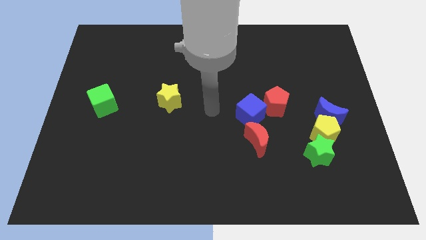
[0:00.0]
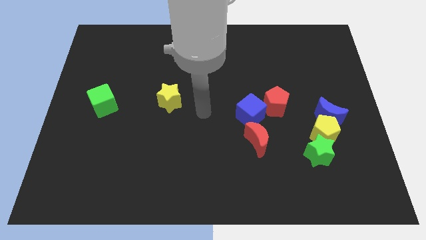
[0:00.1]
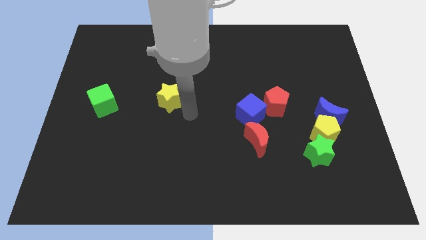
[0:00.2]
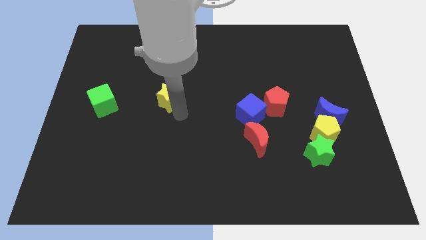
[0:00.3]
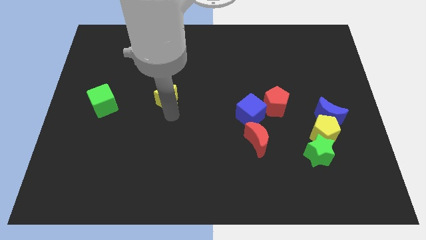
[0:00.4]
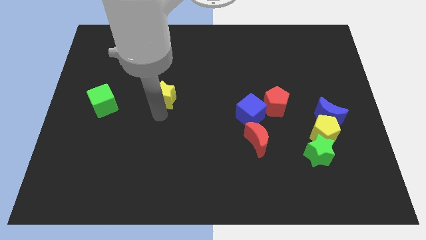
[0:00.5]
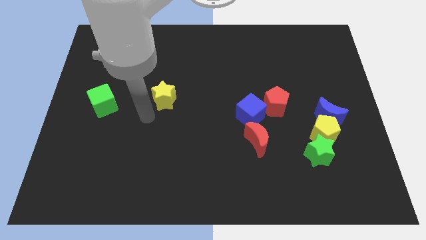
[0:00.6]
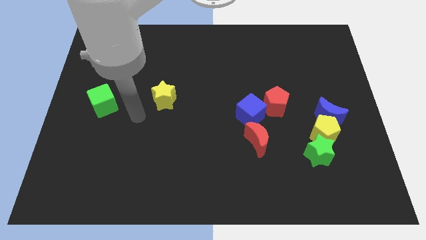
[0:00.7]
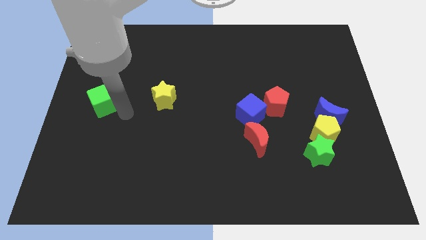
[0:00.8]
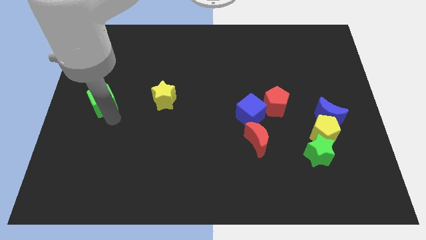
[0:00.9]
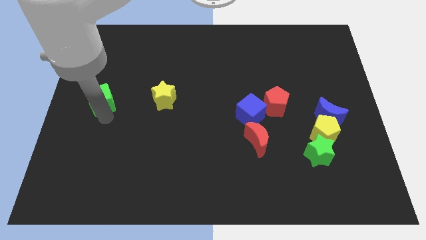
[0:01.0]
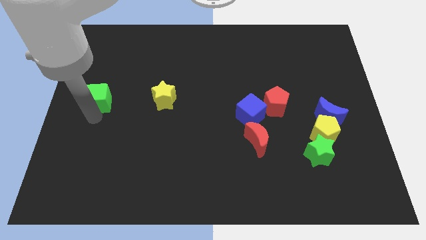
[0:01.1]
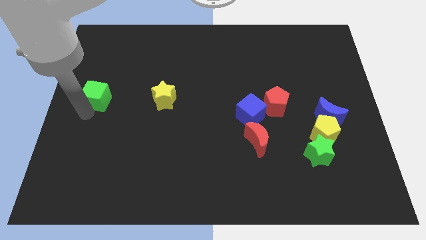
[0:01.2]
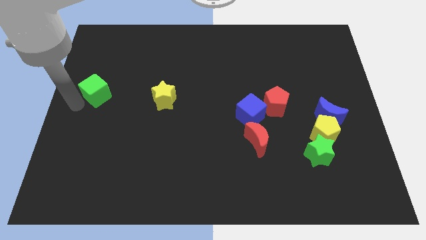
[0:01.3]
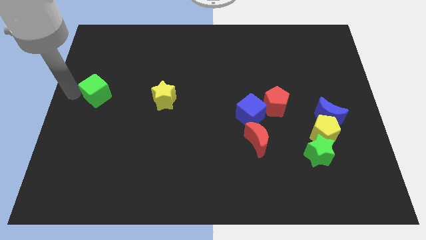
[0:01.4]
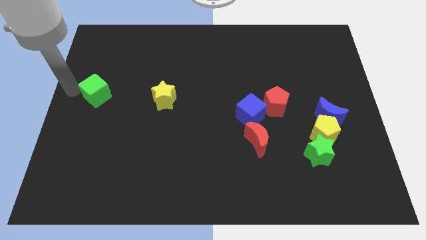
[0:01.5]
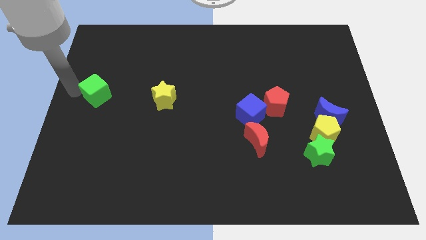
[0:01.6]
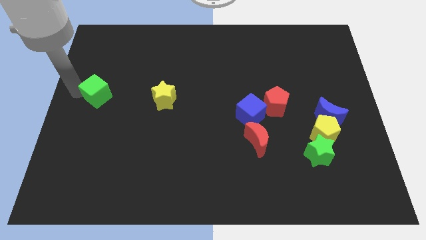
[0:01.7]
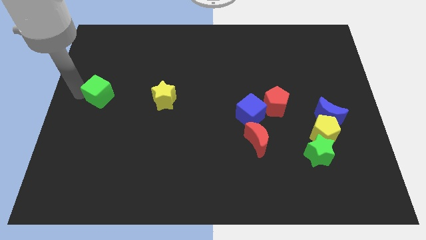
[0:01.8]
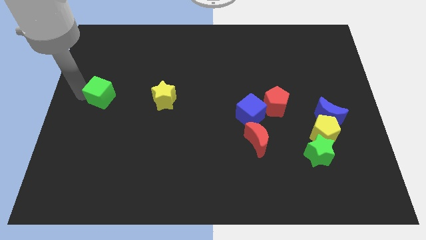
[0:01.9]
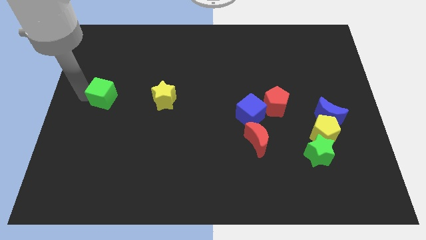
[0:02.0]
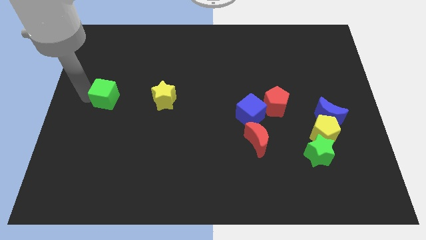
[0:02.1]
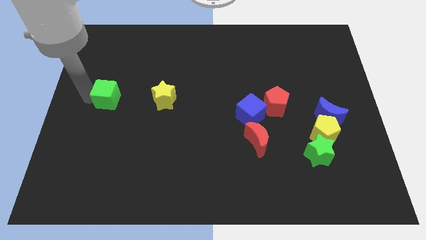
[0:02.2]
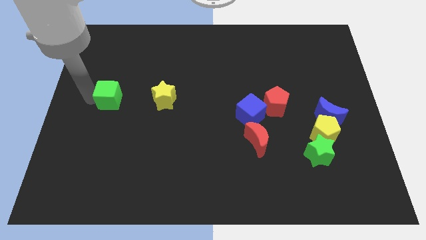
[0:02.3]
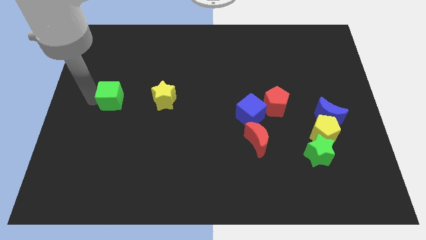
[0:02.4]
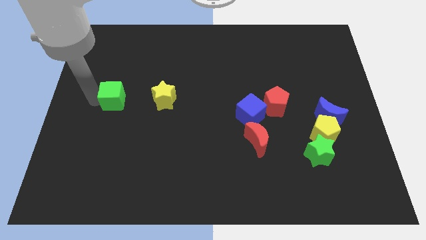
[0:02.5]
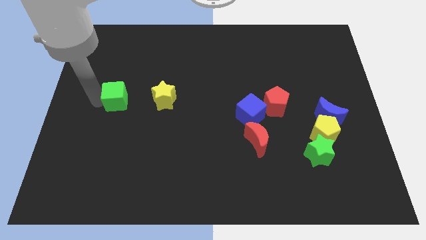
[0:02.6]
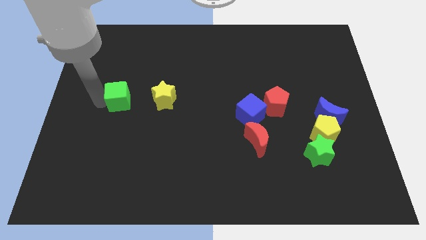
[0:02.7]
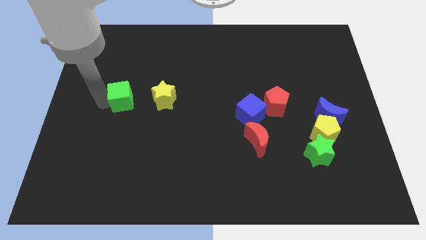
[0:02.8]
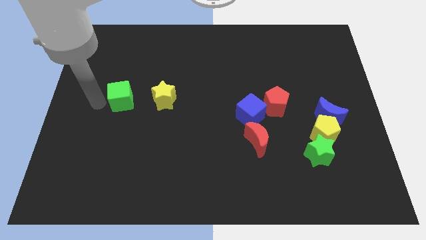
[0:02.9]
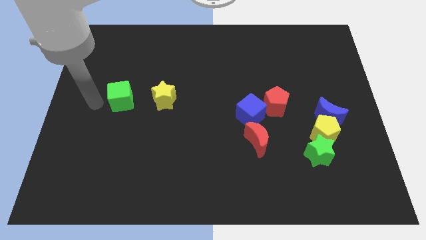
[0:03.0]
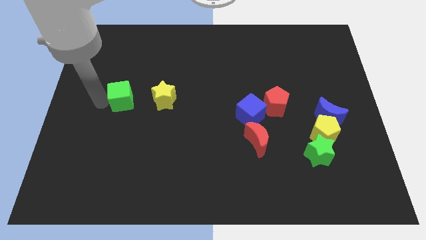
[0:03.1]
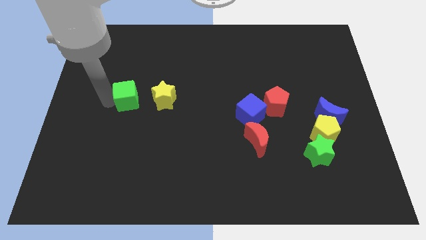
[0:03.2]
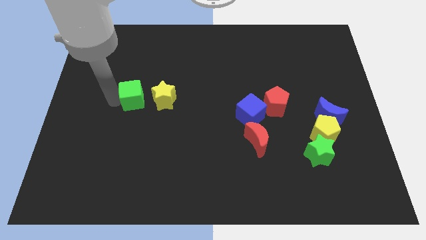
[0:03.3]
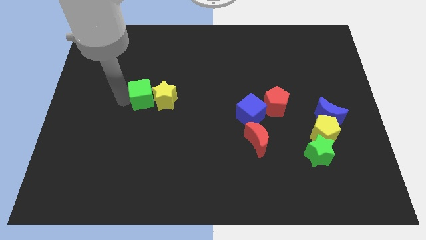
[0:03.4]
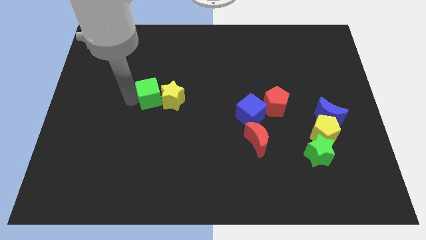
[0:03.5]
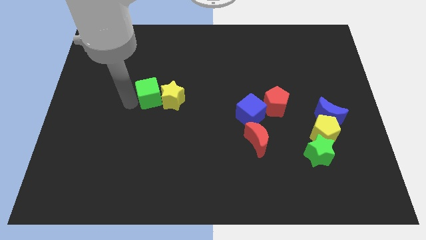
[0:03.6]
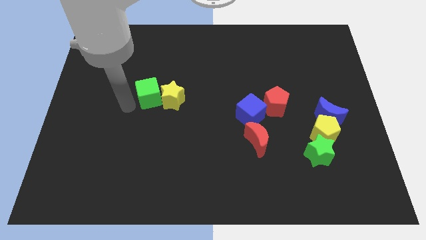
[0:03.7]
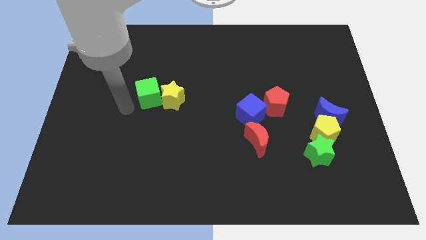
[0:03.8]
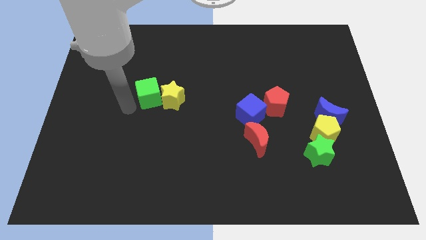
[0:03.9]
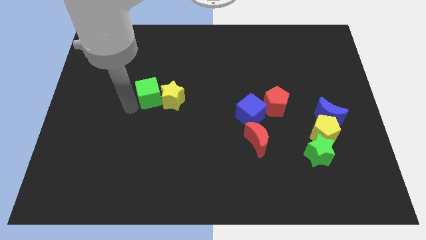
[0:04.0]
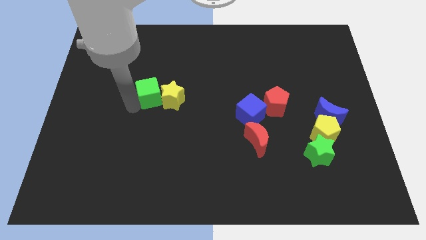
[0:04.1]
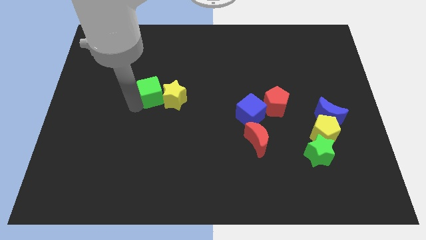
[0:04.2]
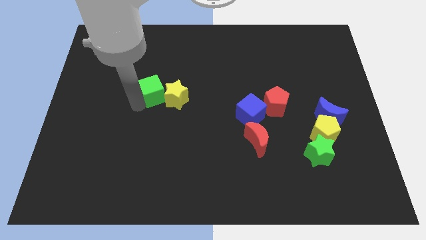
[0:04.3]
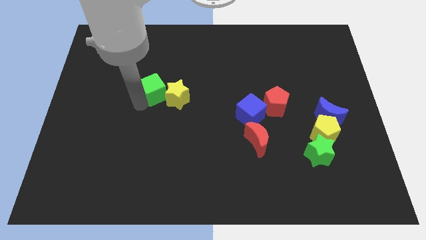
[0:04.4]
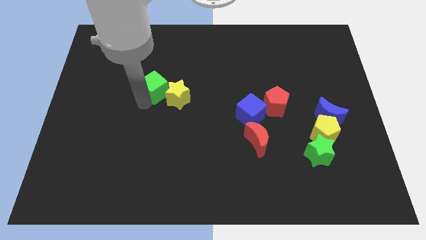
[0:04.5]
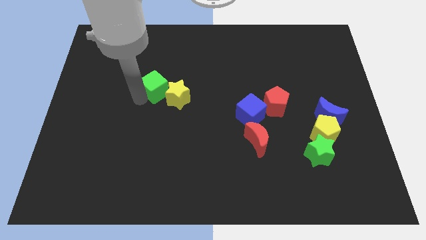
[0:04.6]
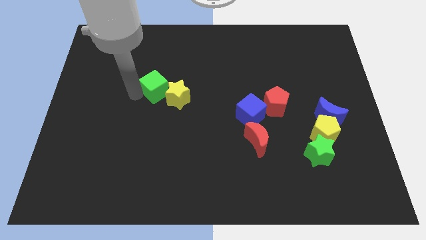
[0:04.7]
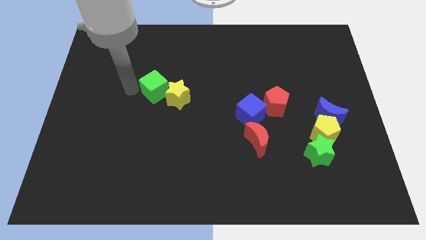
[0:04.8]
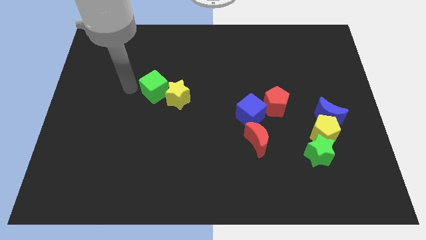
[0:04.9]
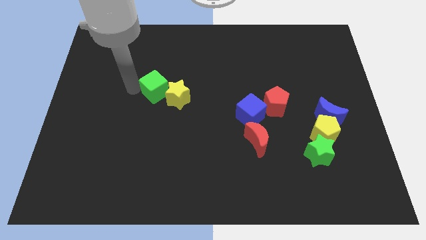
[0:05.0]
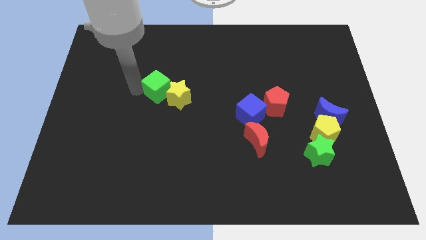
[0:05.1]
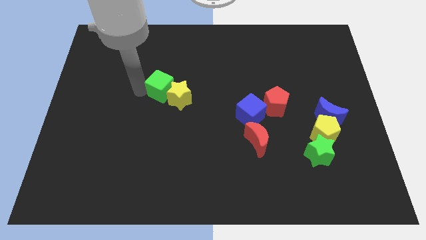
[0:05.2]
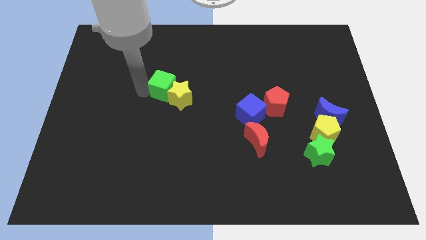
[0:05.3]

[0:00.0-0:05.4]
slide the green cube to the center

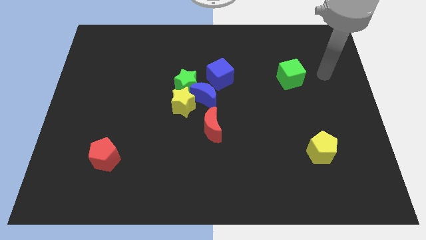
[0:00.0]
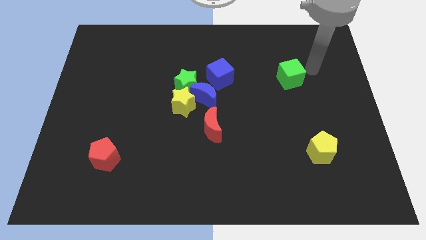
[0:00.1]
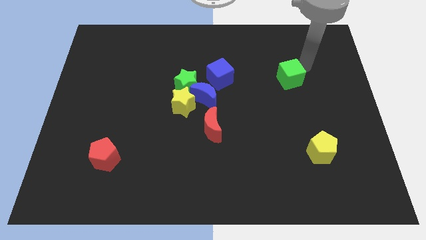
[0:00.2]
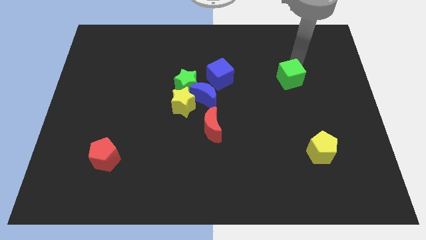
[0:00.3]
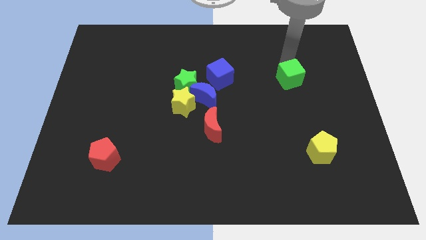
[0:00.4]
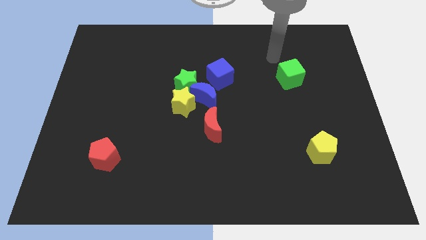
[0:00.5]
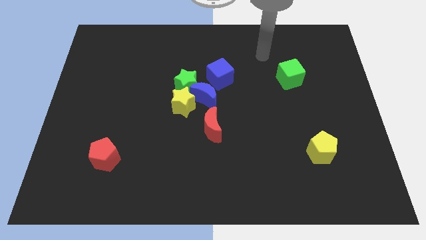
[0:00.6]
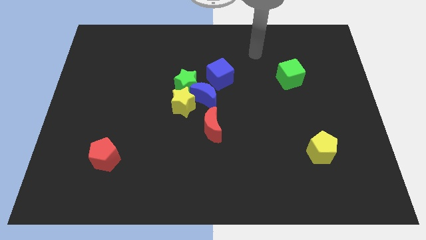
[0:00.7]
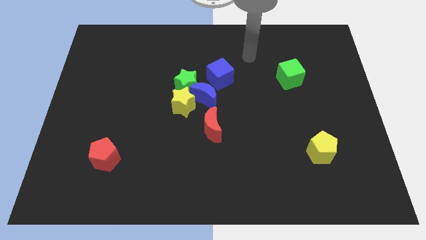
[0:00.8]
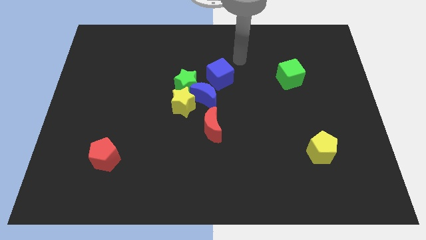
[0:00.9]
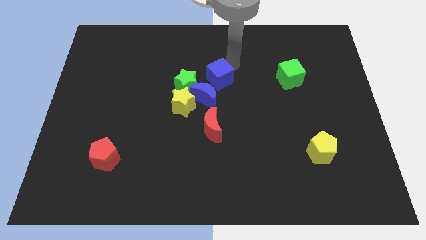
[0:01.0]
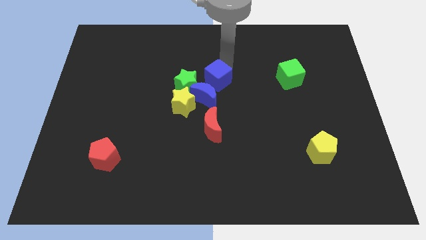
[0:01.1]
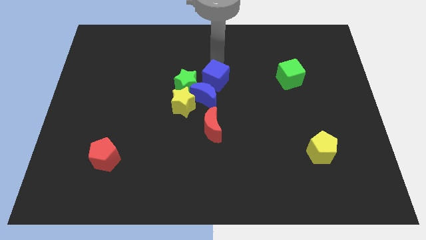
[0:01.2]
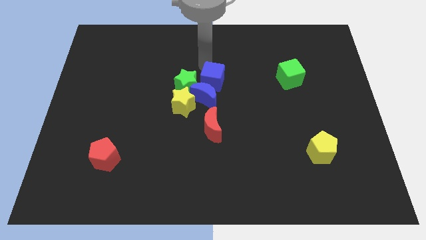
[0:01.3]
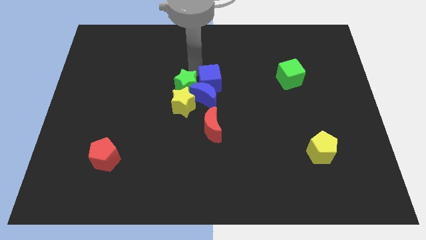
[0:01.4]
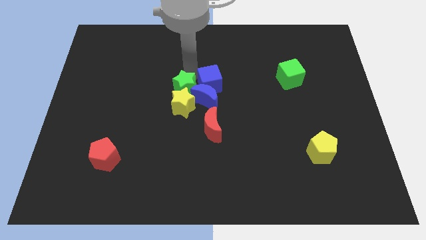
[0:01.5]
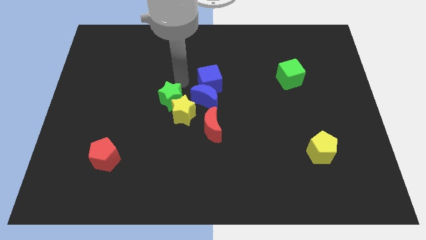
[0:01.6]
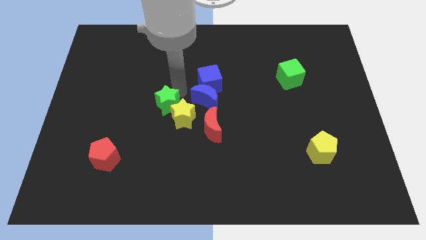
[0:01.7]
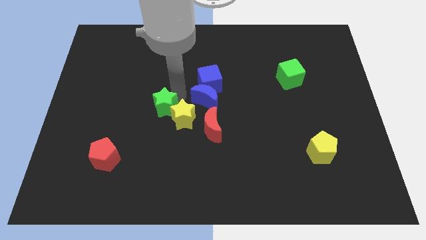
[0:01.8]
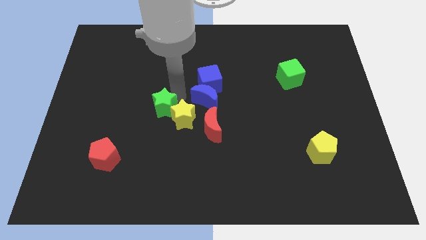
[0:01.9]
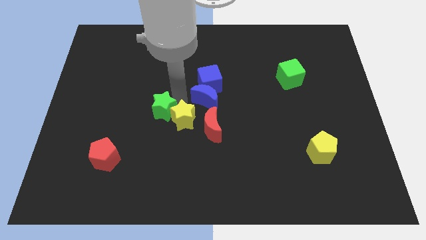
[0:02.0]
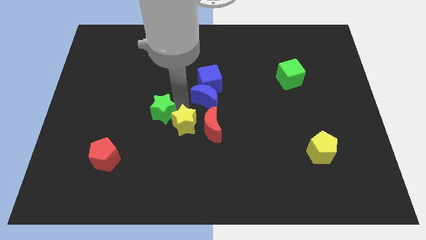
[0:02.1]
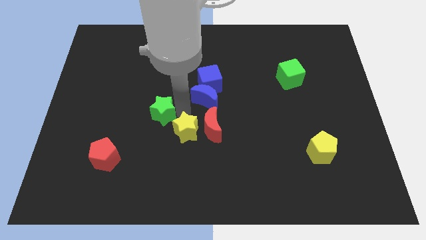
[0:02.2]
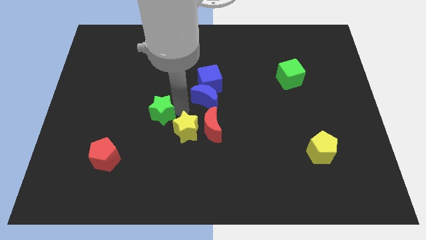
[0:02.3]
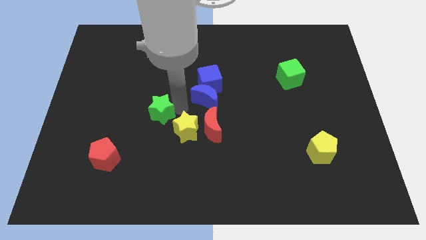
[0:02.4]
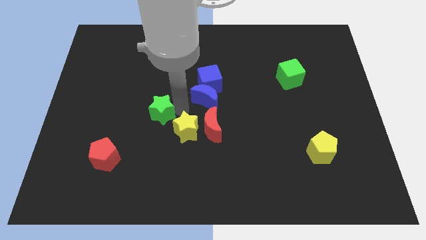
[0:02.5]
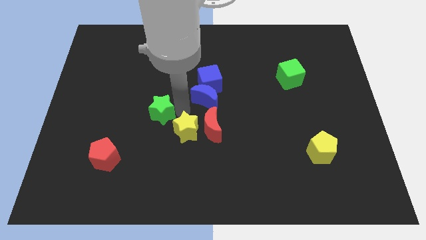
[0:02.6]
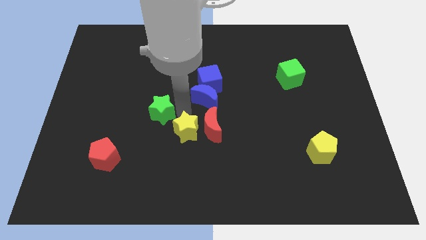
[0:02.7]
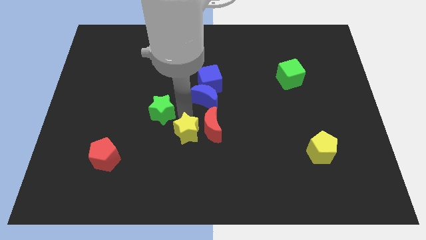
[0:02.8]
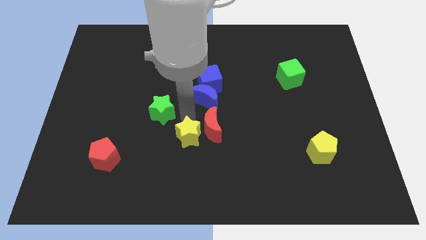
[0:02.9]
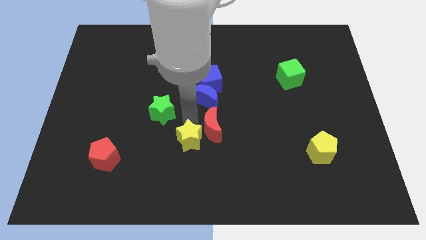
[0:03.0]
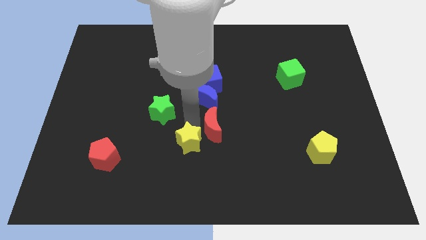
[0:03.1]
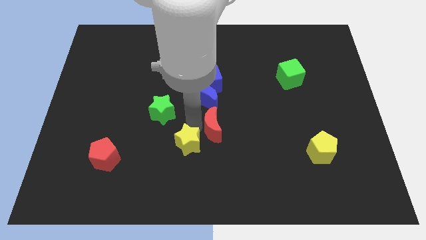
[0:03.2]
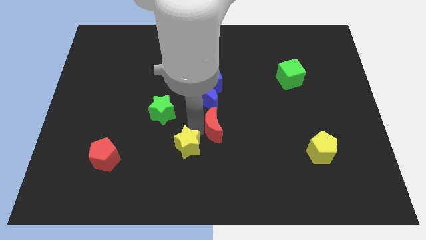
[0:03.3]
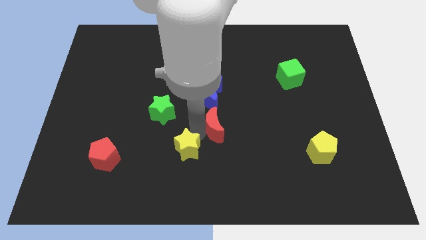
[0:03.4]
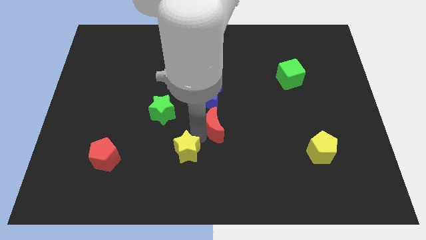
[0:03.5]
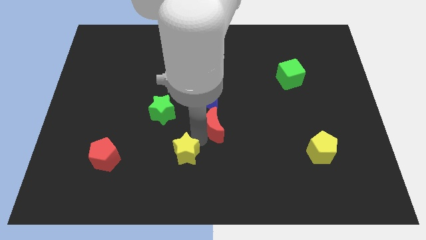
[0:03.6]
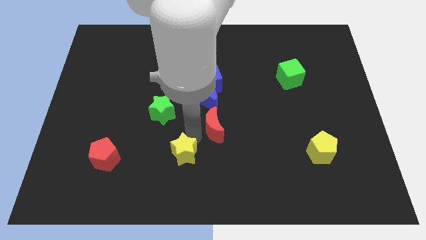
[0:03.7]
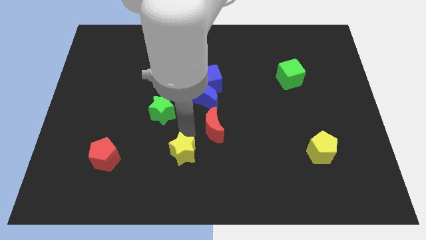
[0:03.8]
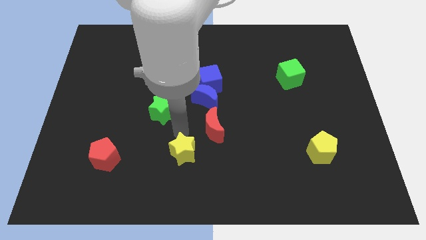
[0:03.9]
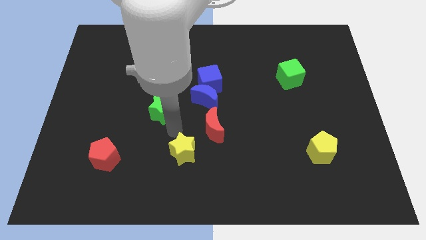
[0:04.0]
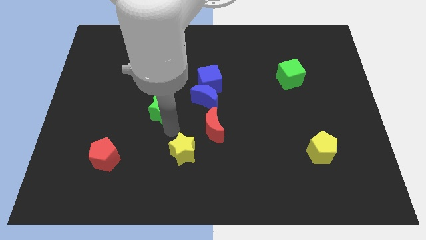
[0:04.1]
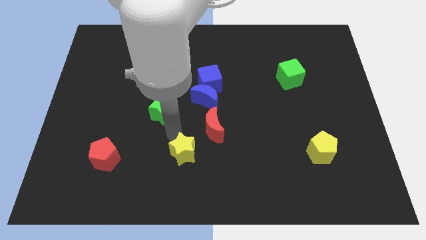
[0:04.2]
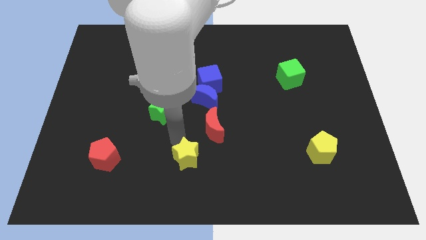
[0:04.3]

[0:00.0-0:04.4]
put the yellow star to the bottom side
